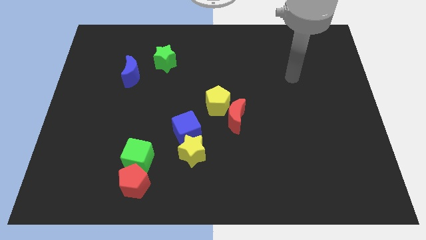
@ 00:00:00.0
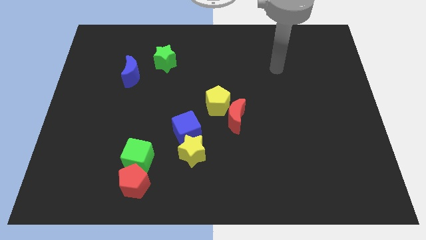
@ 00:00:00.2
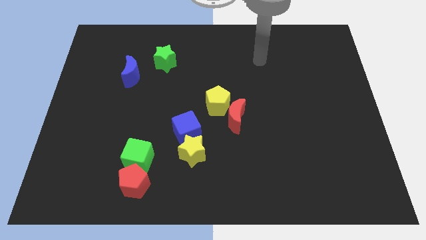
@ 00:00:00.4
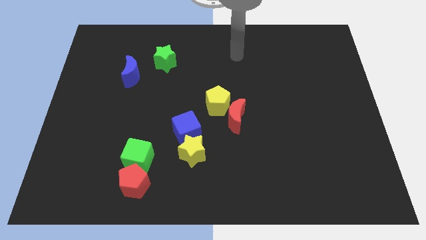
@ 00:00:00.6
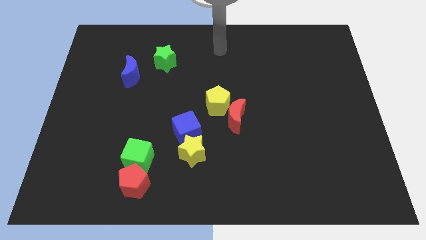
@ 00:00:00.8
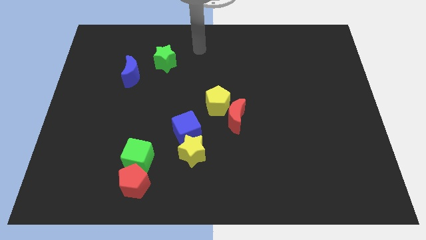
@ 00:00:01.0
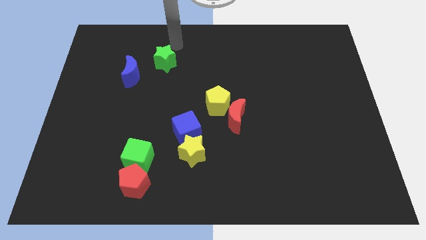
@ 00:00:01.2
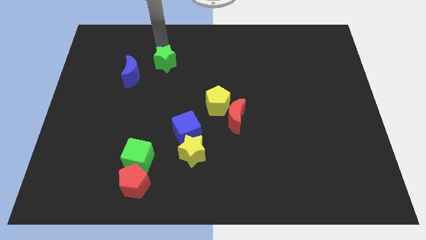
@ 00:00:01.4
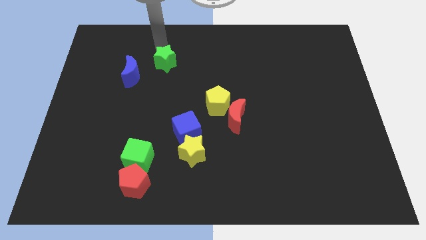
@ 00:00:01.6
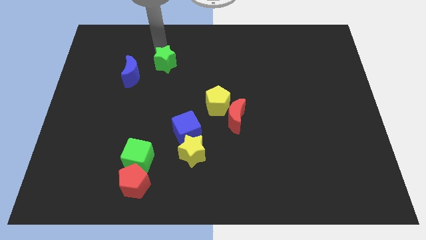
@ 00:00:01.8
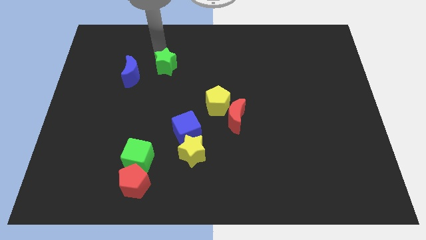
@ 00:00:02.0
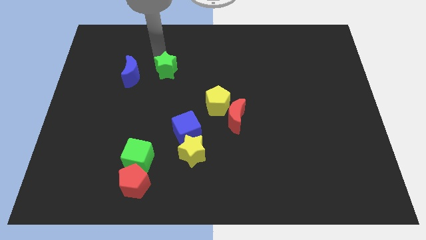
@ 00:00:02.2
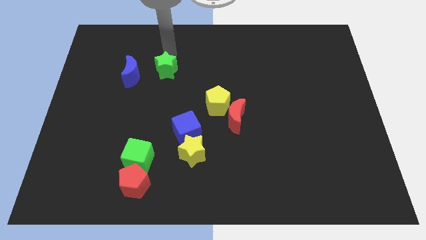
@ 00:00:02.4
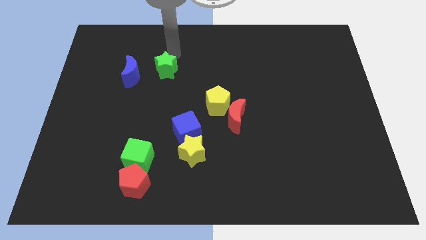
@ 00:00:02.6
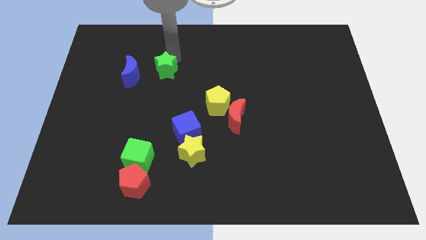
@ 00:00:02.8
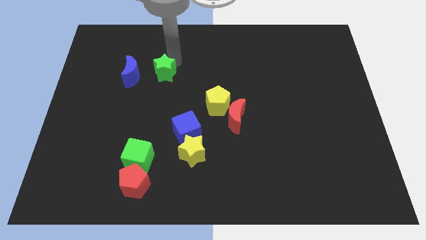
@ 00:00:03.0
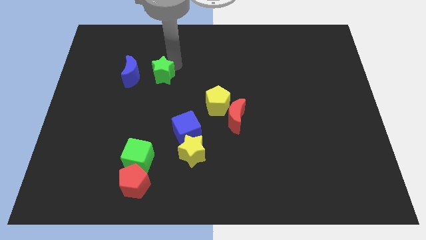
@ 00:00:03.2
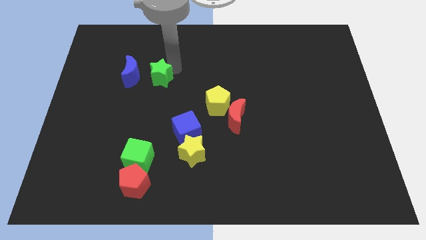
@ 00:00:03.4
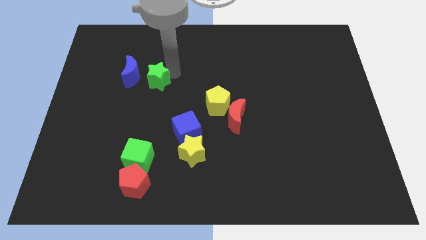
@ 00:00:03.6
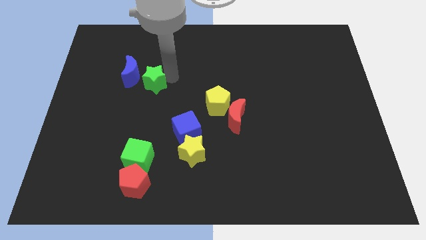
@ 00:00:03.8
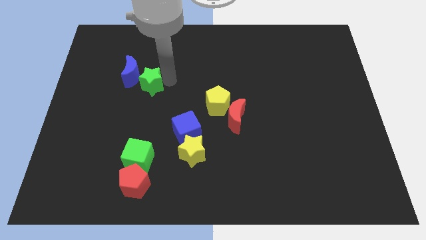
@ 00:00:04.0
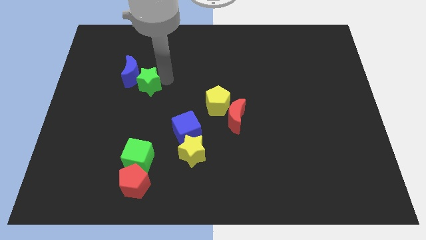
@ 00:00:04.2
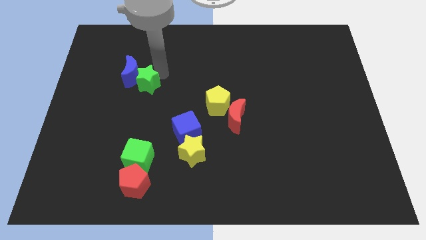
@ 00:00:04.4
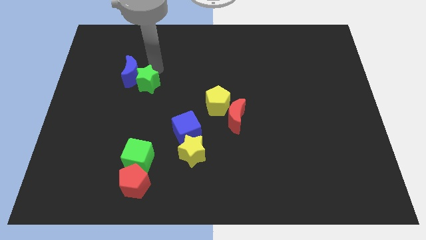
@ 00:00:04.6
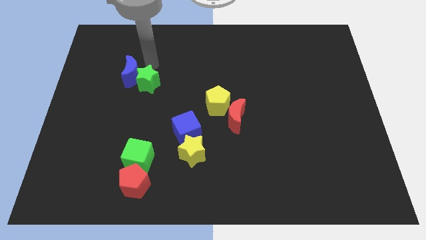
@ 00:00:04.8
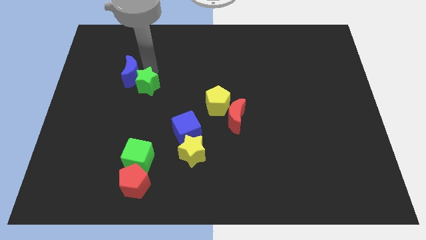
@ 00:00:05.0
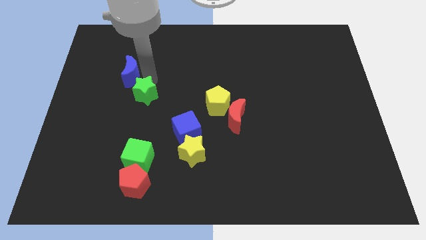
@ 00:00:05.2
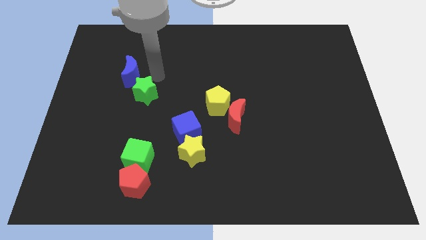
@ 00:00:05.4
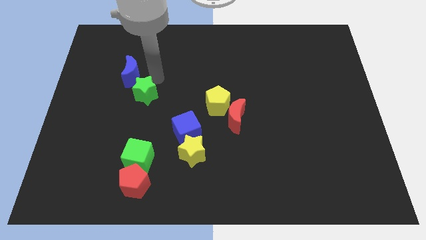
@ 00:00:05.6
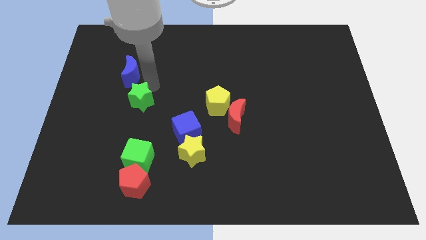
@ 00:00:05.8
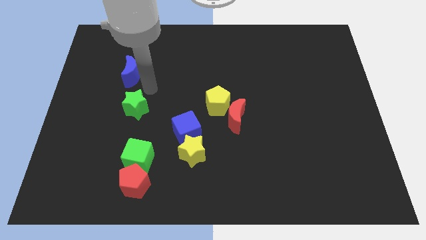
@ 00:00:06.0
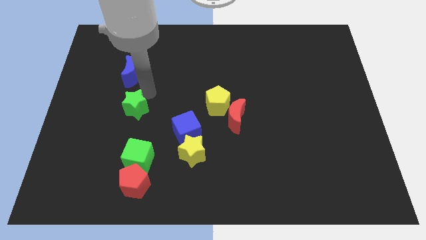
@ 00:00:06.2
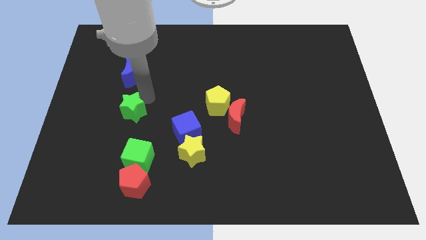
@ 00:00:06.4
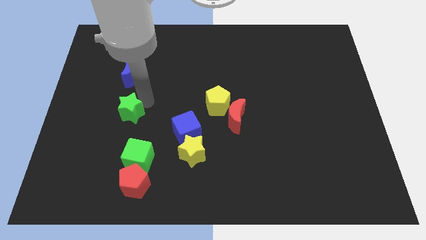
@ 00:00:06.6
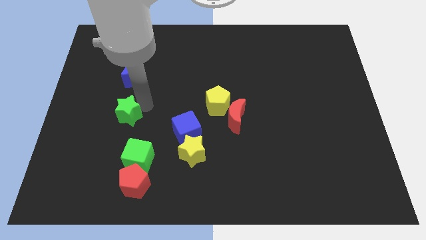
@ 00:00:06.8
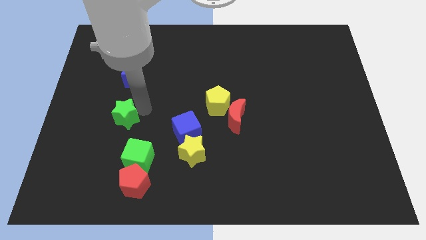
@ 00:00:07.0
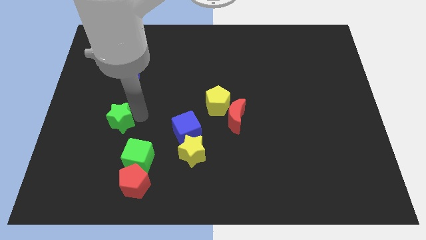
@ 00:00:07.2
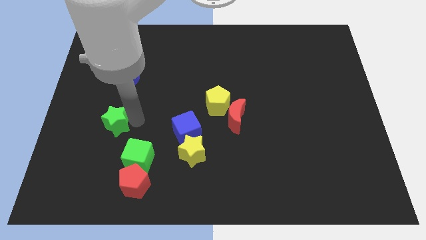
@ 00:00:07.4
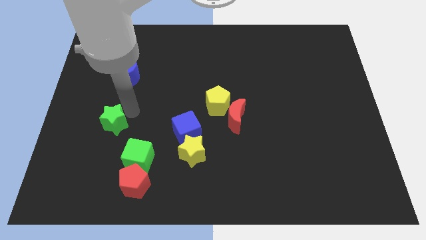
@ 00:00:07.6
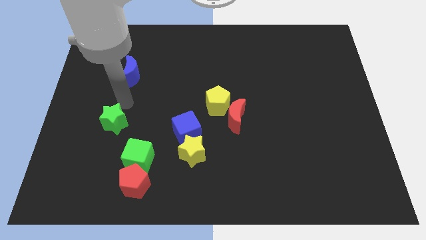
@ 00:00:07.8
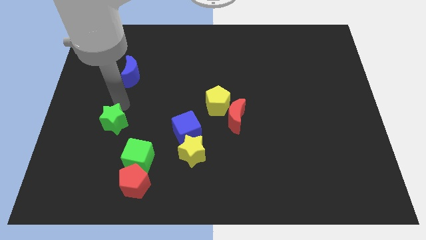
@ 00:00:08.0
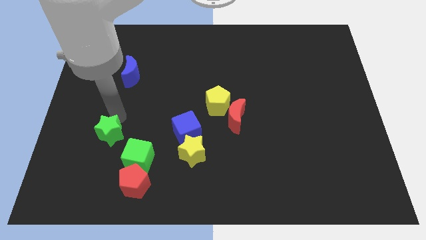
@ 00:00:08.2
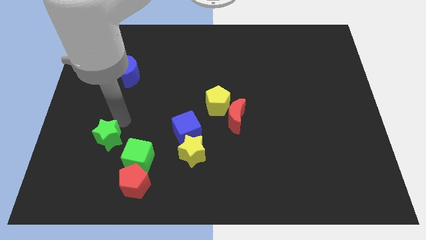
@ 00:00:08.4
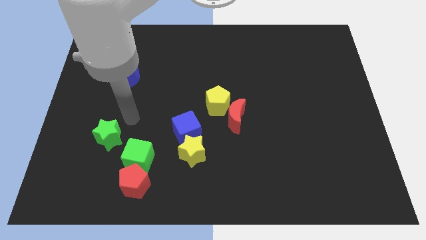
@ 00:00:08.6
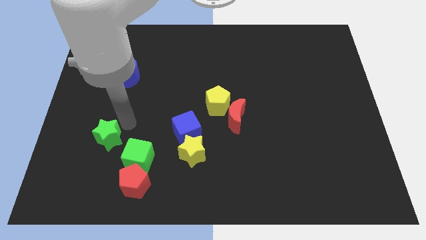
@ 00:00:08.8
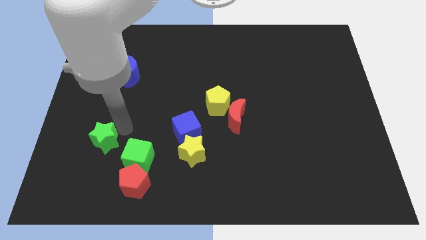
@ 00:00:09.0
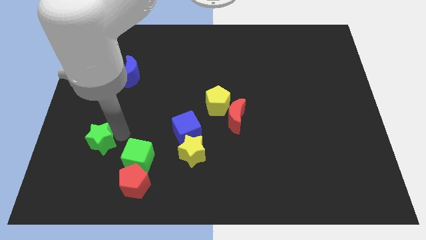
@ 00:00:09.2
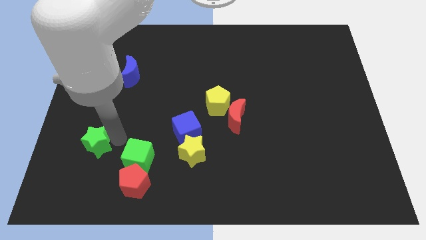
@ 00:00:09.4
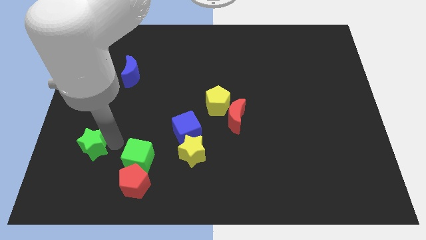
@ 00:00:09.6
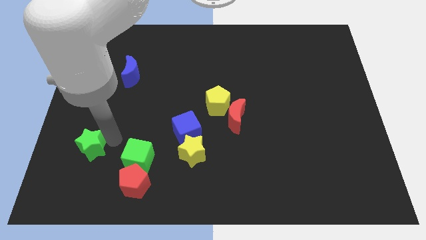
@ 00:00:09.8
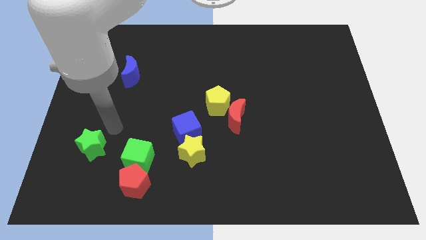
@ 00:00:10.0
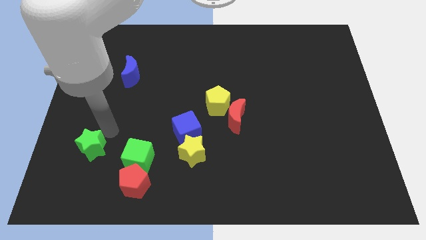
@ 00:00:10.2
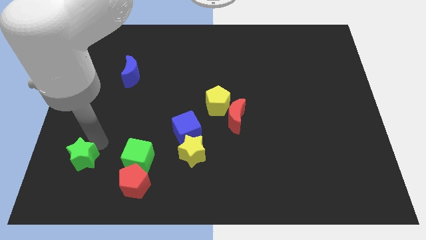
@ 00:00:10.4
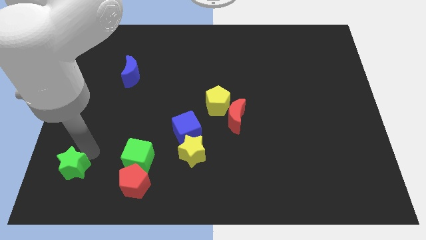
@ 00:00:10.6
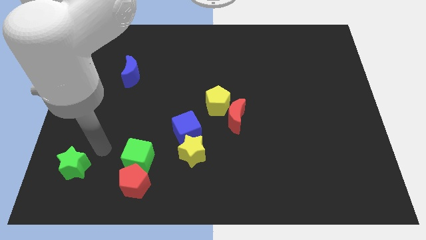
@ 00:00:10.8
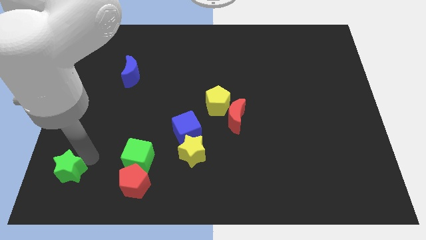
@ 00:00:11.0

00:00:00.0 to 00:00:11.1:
slide the green star to the bottom left of the board

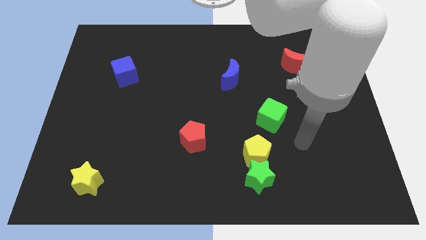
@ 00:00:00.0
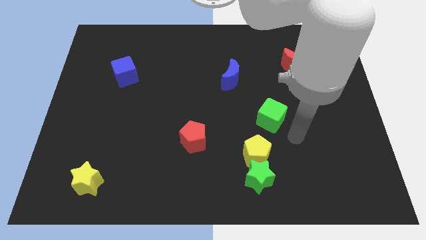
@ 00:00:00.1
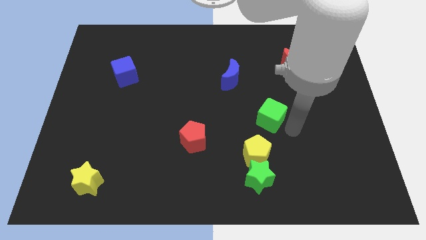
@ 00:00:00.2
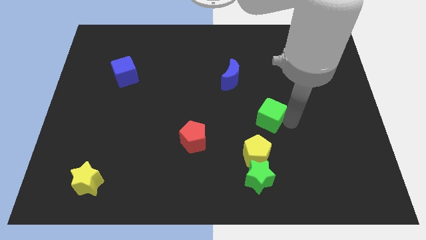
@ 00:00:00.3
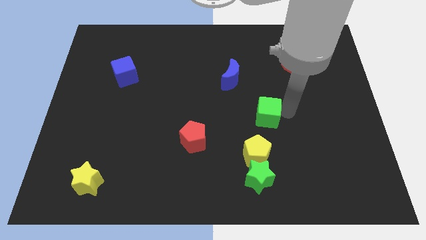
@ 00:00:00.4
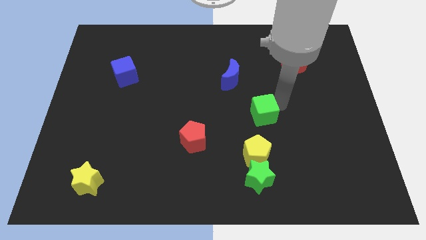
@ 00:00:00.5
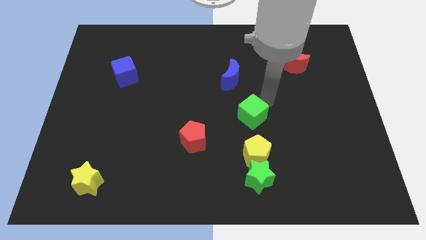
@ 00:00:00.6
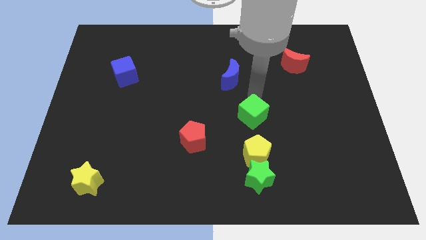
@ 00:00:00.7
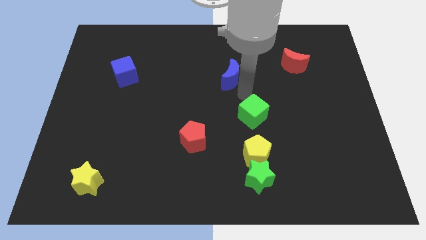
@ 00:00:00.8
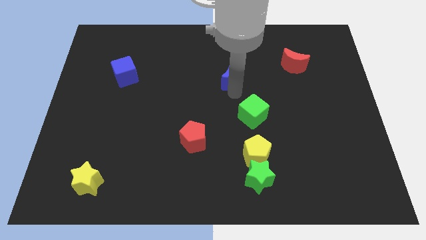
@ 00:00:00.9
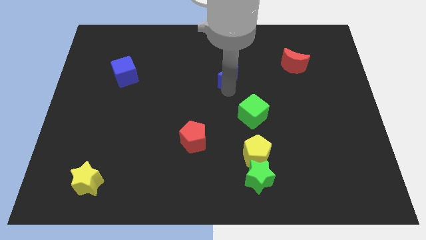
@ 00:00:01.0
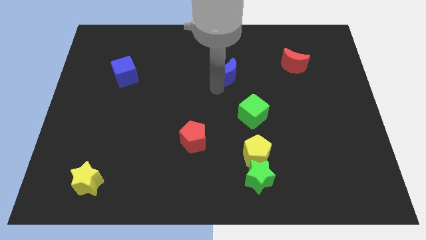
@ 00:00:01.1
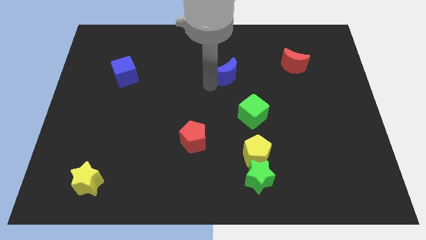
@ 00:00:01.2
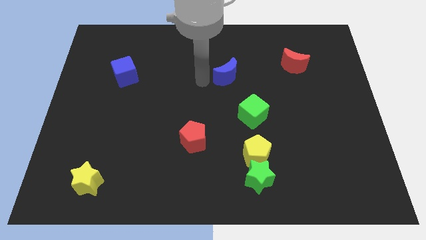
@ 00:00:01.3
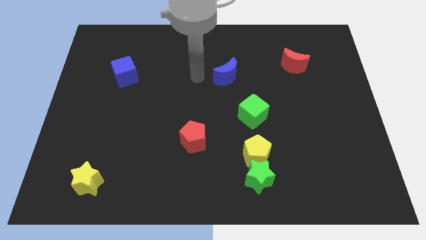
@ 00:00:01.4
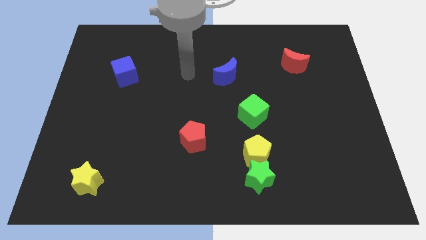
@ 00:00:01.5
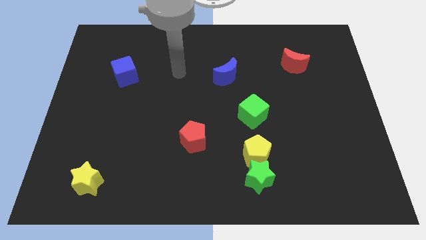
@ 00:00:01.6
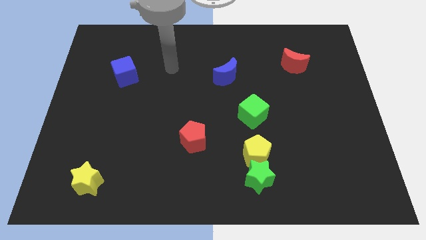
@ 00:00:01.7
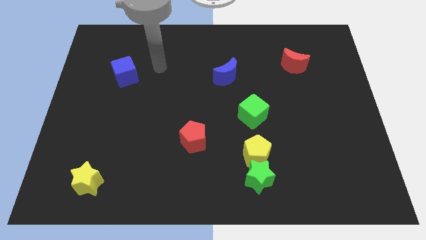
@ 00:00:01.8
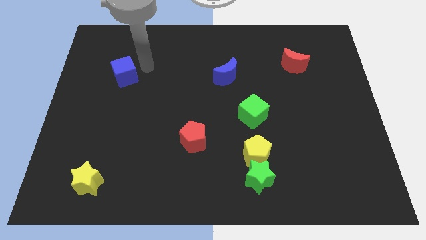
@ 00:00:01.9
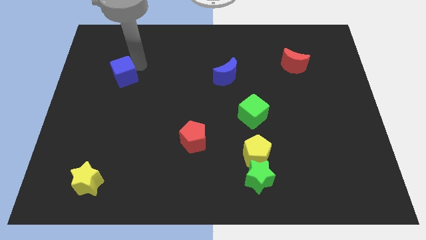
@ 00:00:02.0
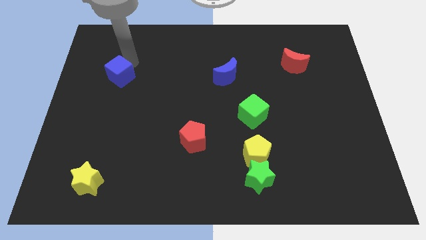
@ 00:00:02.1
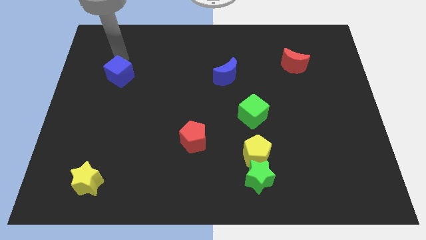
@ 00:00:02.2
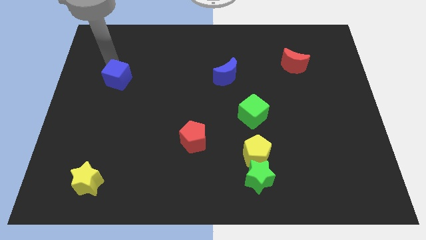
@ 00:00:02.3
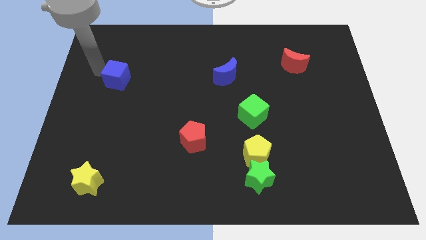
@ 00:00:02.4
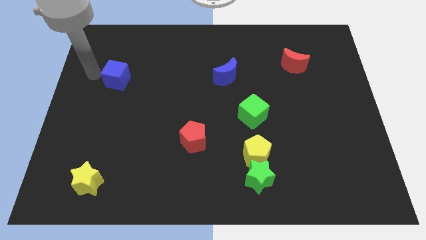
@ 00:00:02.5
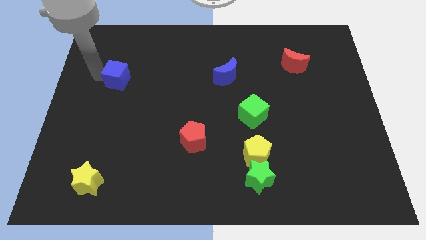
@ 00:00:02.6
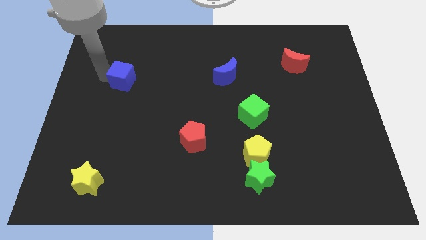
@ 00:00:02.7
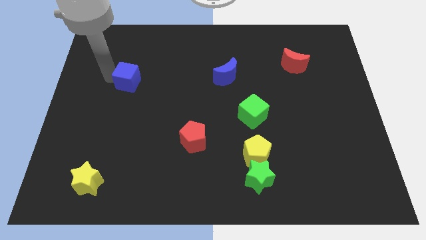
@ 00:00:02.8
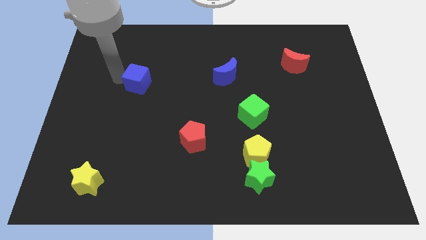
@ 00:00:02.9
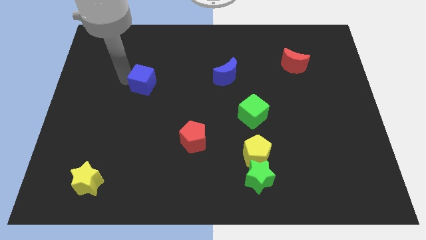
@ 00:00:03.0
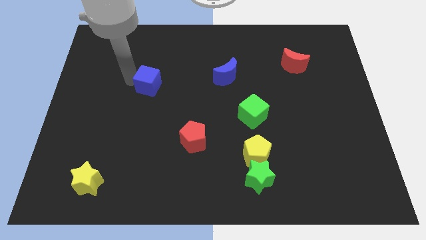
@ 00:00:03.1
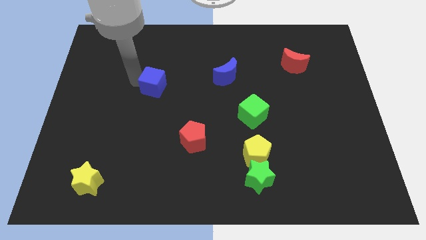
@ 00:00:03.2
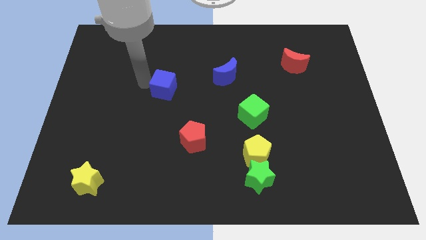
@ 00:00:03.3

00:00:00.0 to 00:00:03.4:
push the blue cube to the middle of the board
